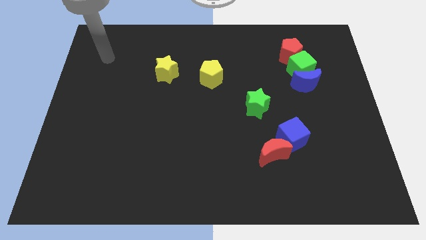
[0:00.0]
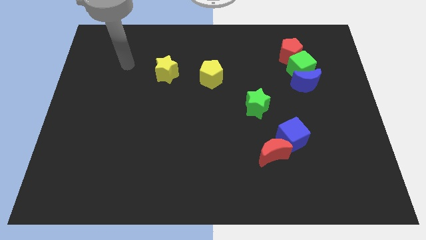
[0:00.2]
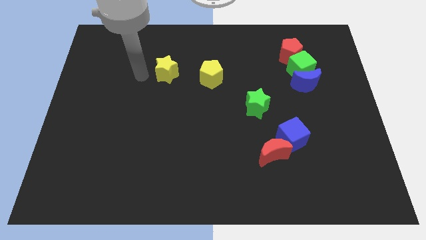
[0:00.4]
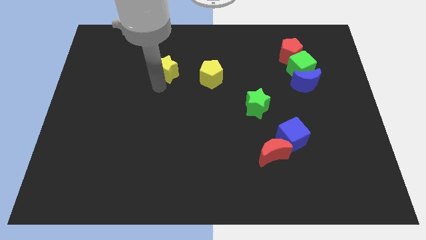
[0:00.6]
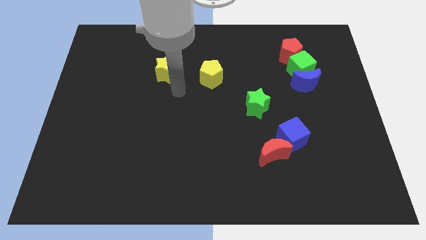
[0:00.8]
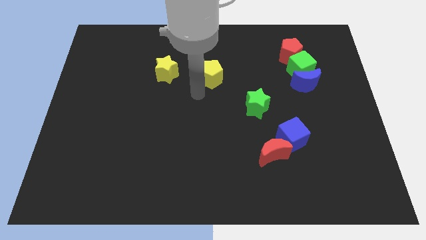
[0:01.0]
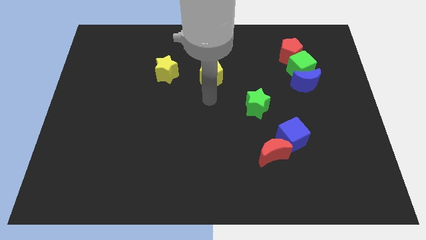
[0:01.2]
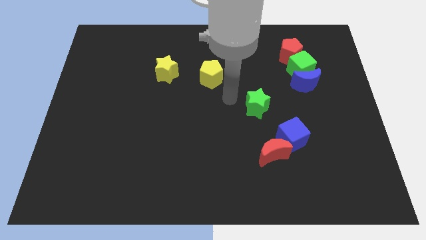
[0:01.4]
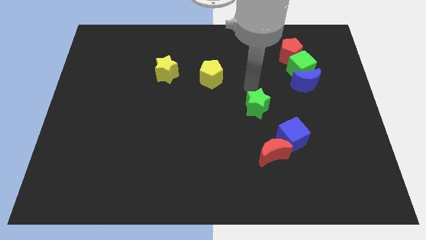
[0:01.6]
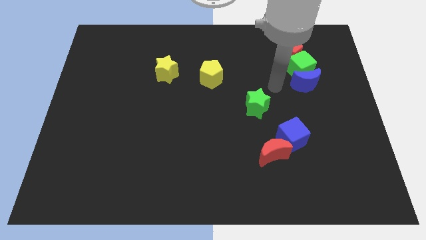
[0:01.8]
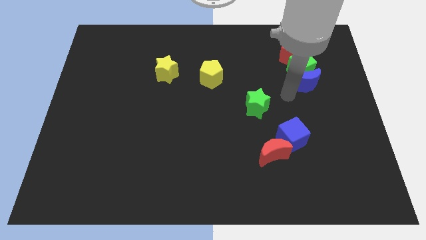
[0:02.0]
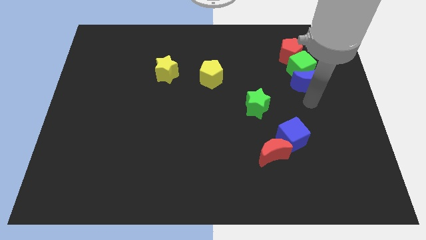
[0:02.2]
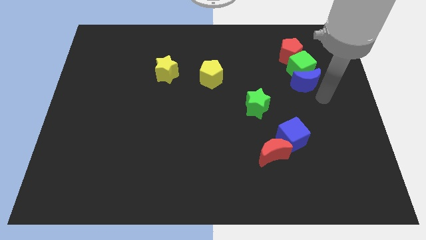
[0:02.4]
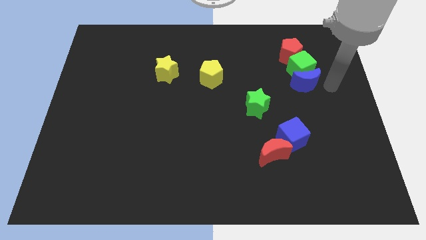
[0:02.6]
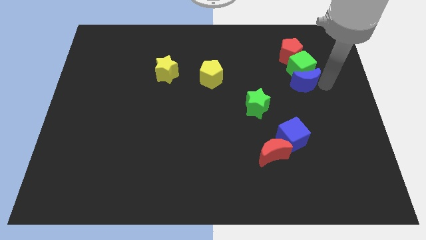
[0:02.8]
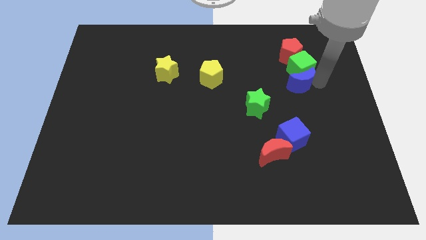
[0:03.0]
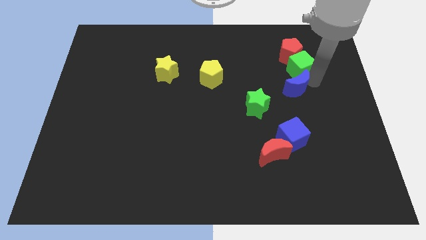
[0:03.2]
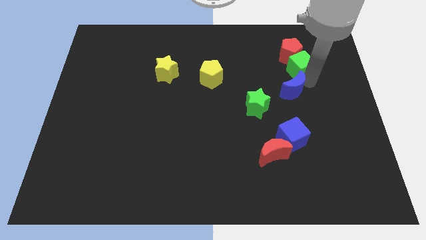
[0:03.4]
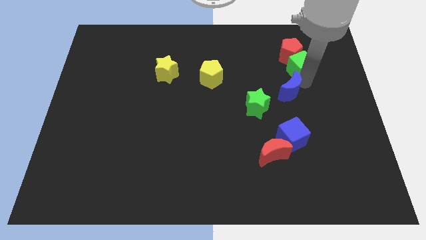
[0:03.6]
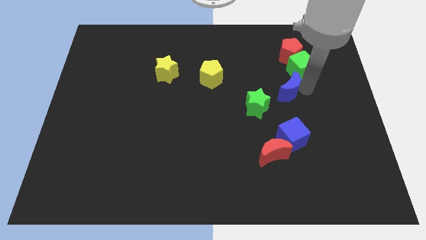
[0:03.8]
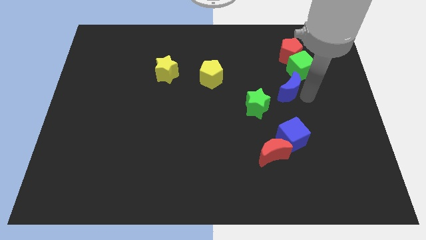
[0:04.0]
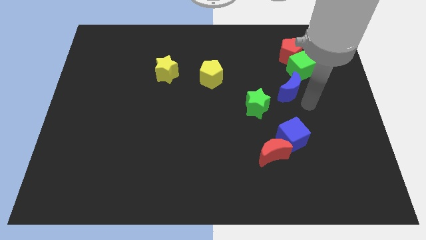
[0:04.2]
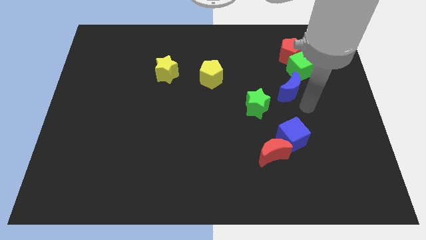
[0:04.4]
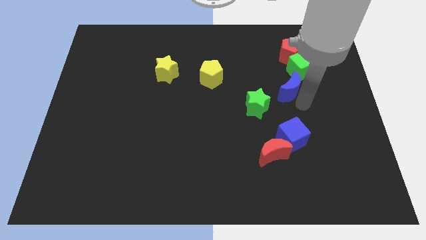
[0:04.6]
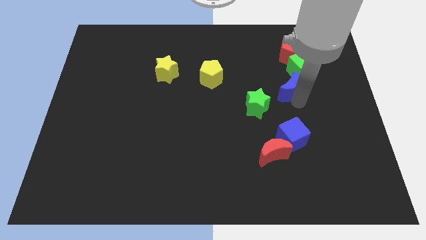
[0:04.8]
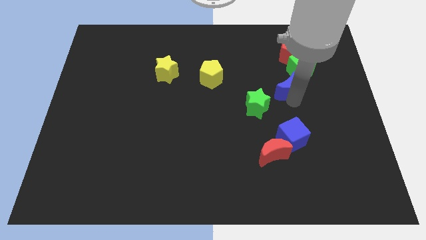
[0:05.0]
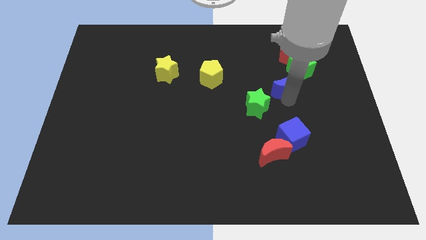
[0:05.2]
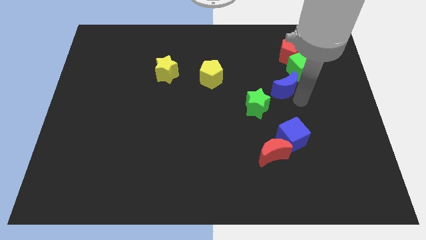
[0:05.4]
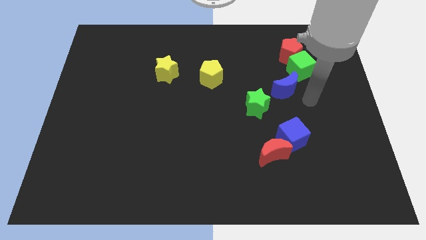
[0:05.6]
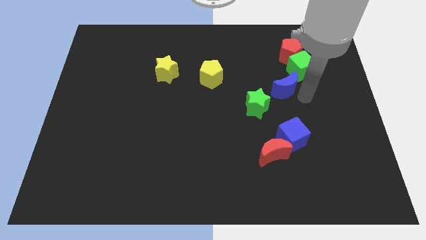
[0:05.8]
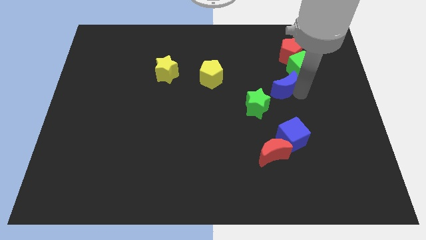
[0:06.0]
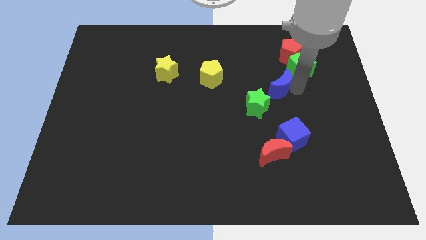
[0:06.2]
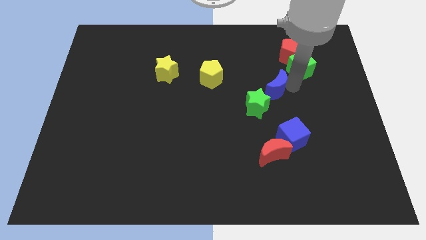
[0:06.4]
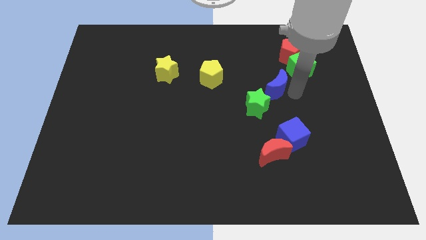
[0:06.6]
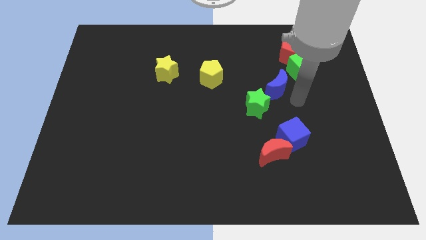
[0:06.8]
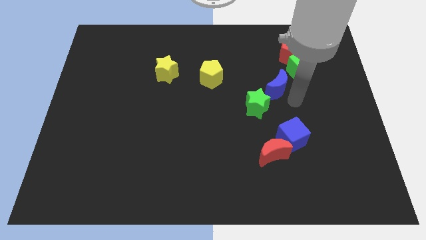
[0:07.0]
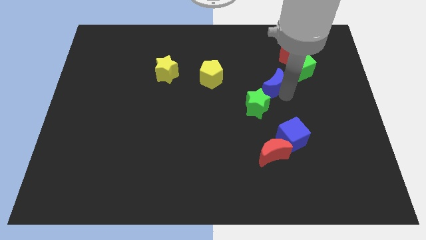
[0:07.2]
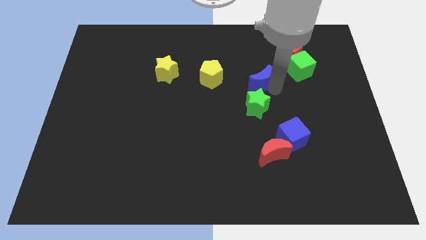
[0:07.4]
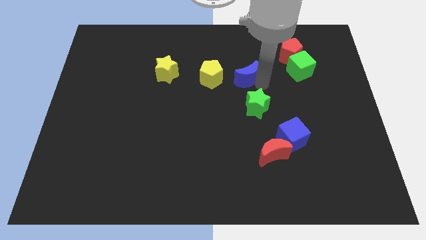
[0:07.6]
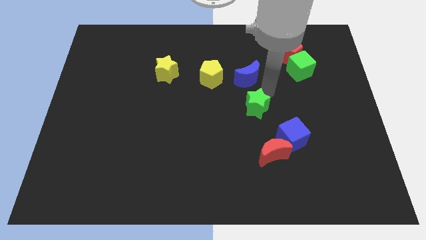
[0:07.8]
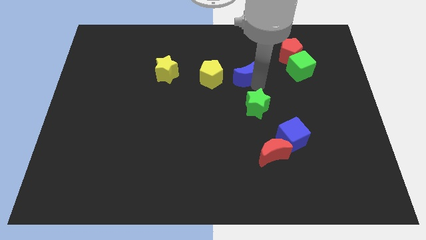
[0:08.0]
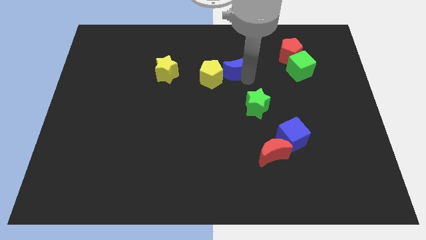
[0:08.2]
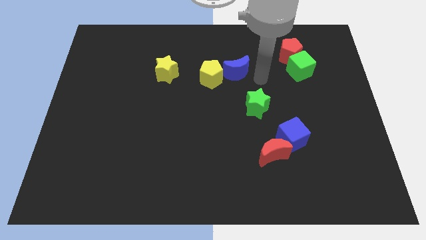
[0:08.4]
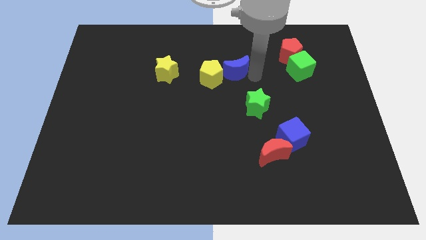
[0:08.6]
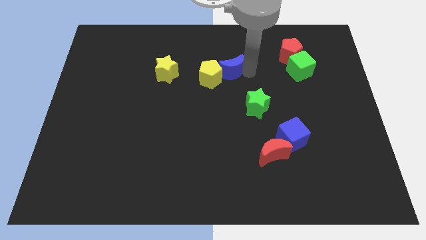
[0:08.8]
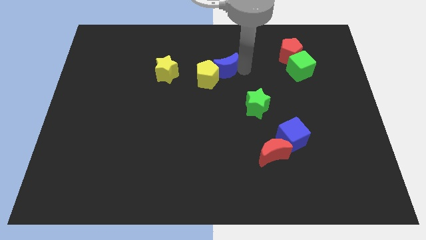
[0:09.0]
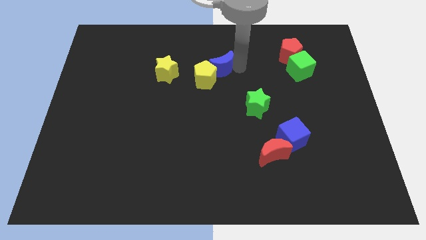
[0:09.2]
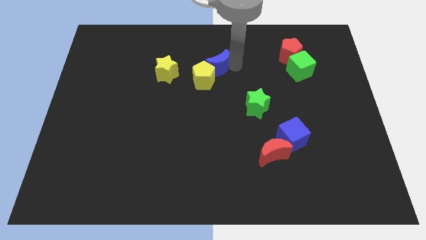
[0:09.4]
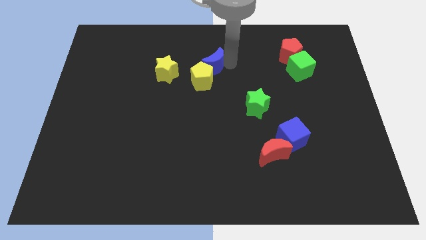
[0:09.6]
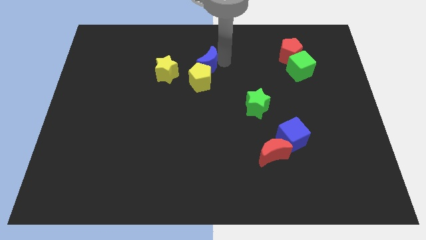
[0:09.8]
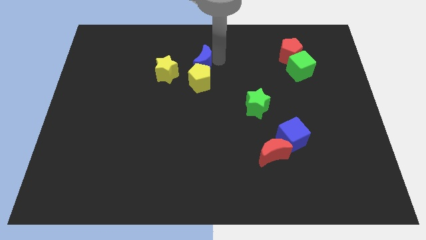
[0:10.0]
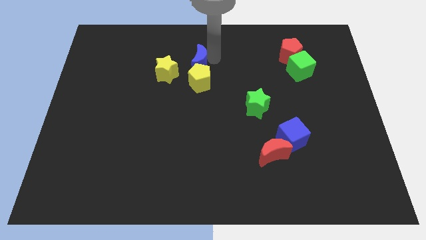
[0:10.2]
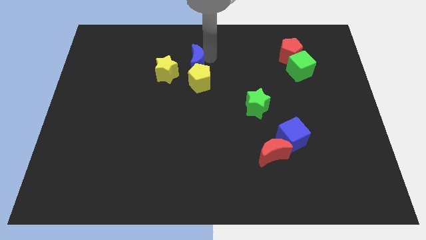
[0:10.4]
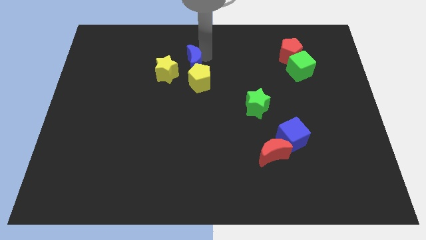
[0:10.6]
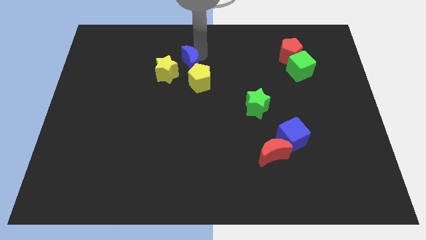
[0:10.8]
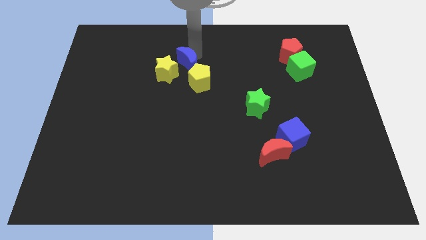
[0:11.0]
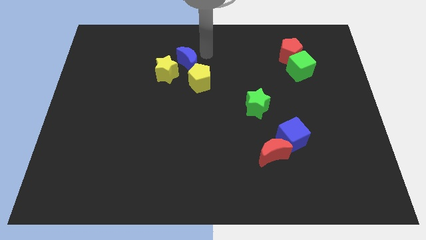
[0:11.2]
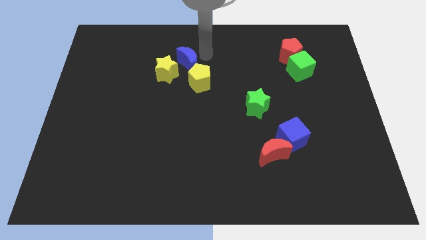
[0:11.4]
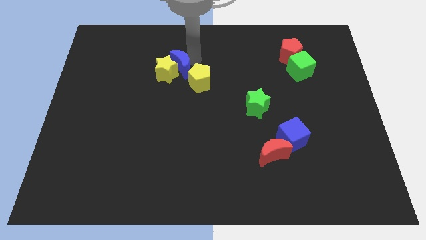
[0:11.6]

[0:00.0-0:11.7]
push the blue moon to the yellow star

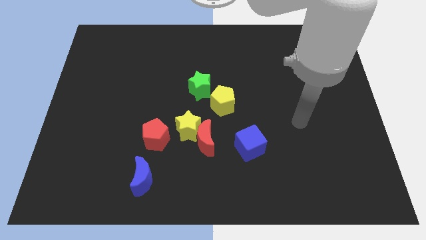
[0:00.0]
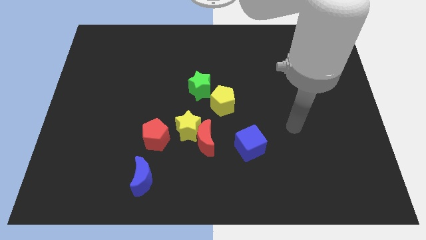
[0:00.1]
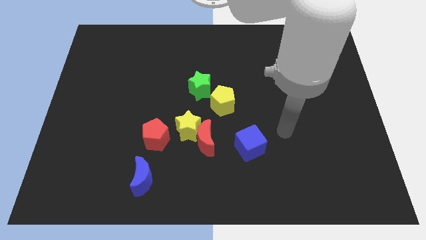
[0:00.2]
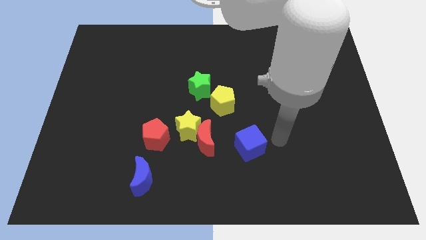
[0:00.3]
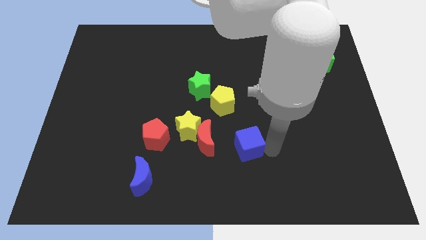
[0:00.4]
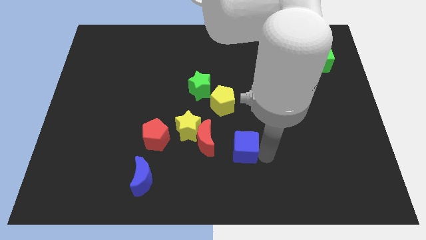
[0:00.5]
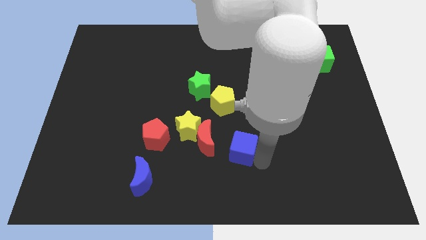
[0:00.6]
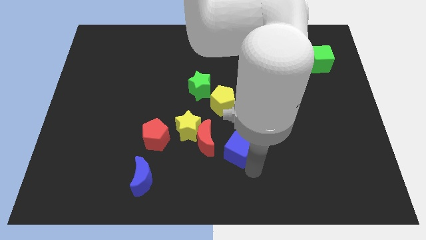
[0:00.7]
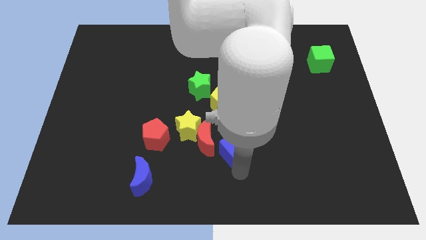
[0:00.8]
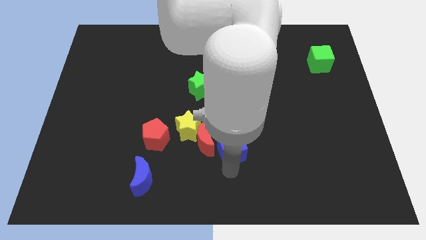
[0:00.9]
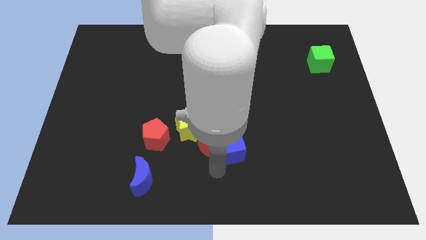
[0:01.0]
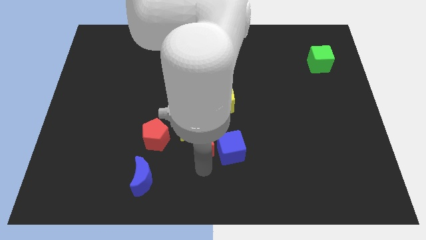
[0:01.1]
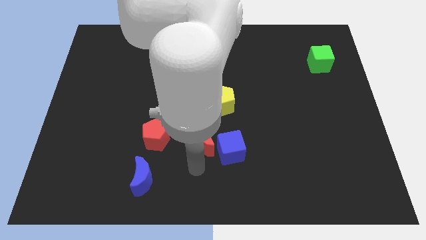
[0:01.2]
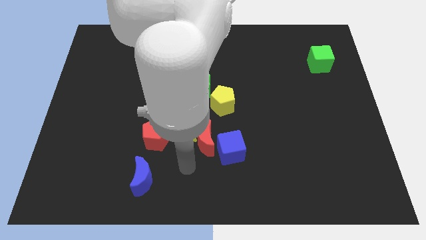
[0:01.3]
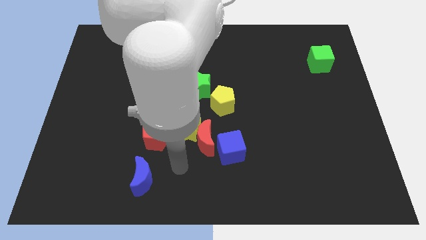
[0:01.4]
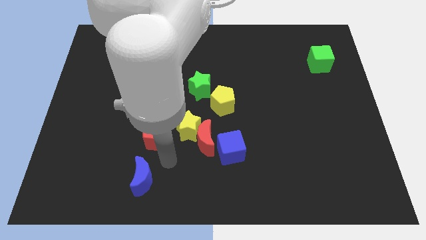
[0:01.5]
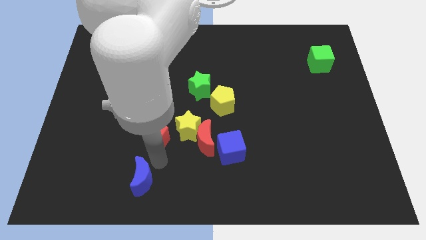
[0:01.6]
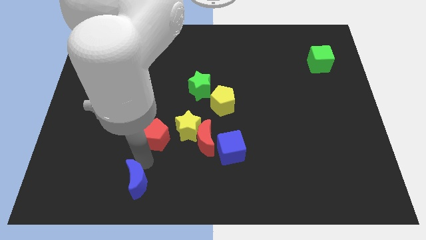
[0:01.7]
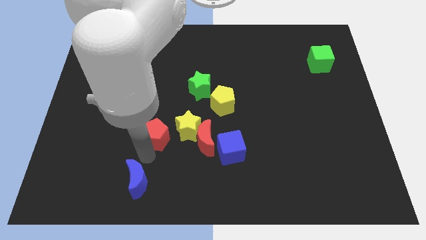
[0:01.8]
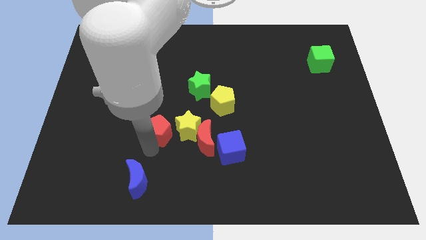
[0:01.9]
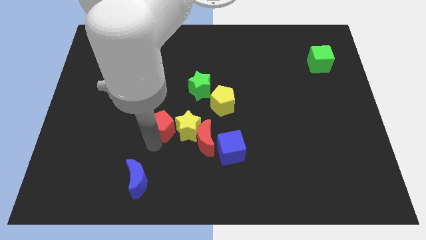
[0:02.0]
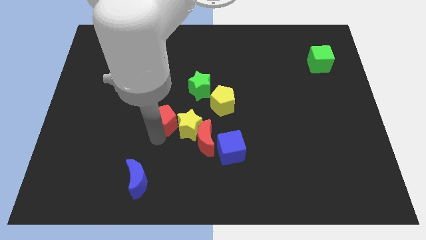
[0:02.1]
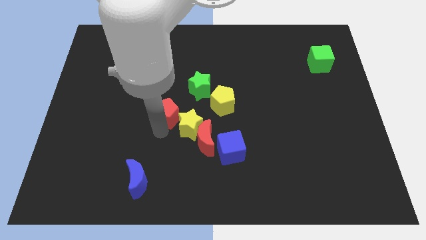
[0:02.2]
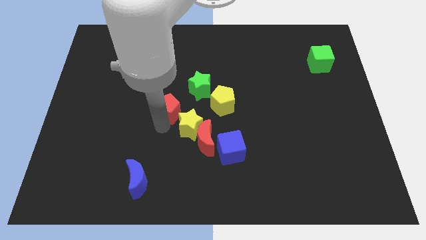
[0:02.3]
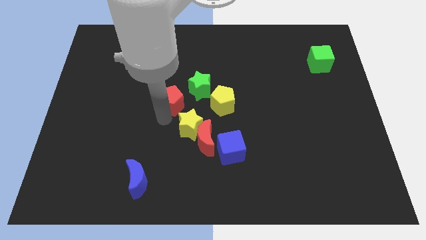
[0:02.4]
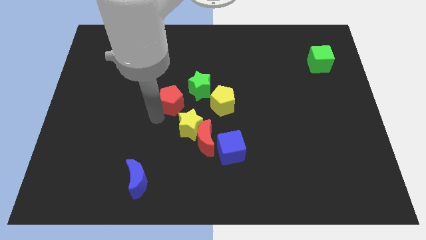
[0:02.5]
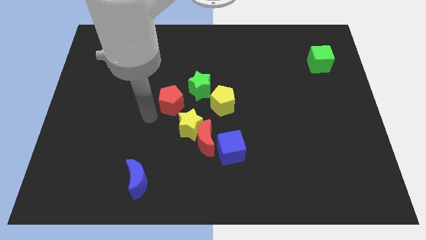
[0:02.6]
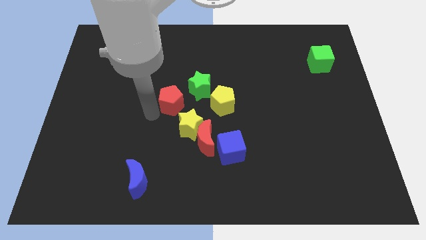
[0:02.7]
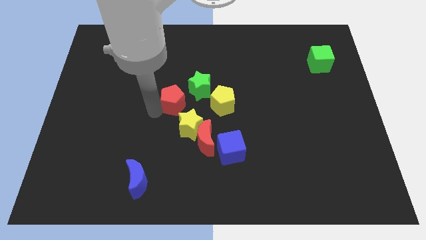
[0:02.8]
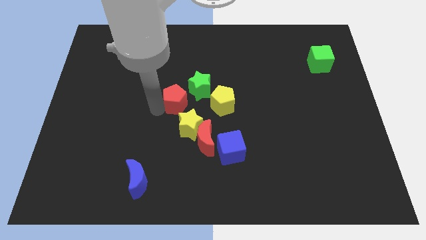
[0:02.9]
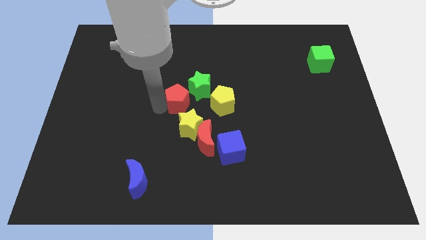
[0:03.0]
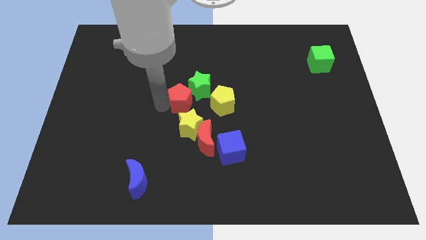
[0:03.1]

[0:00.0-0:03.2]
push the red pentagon to the green star
